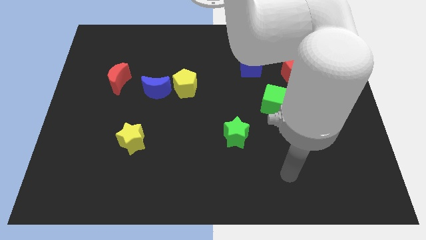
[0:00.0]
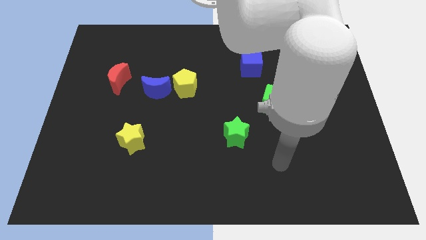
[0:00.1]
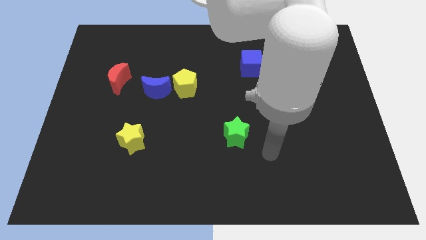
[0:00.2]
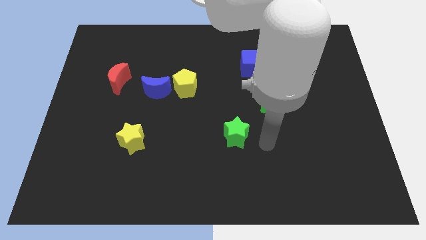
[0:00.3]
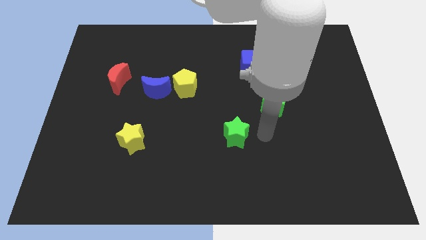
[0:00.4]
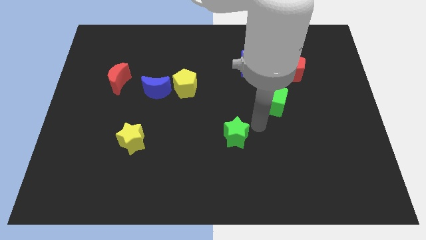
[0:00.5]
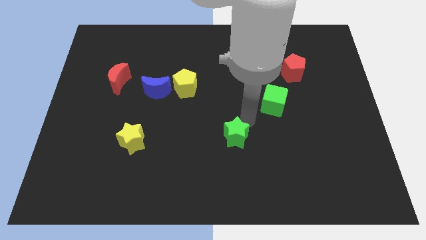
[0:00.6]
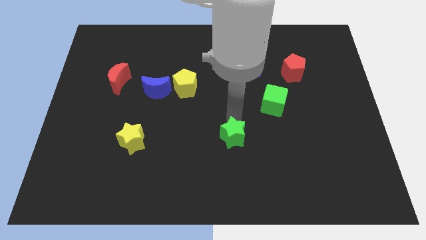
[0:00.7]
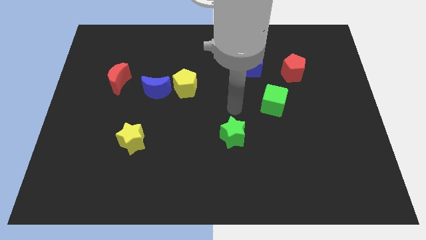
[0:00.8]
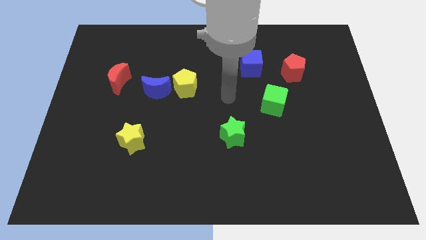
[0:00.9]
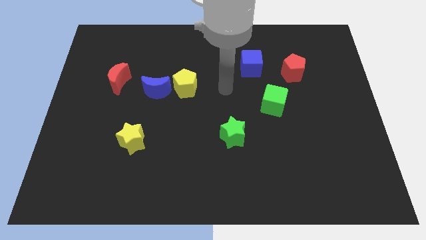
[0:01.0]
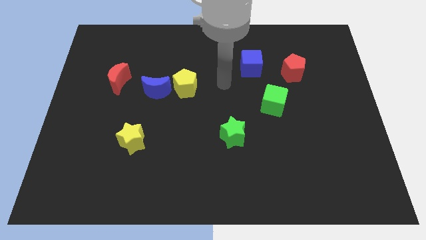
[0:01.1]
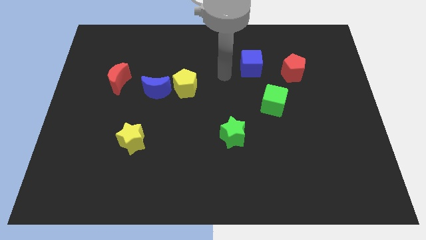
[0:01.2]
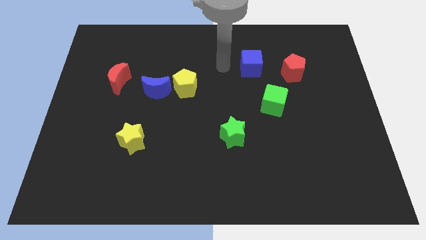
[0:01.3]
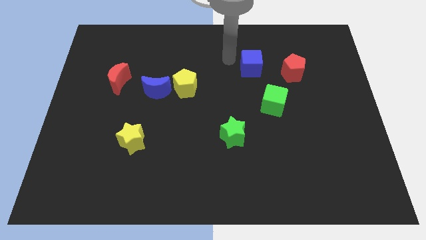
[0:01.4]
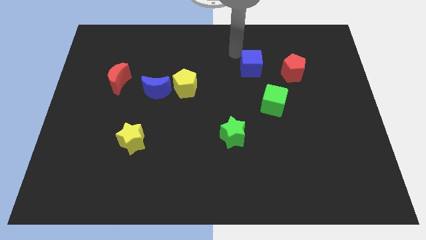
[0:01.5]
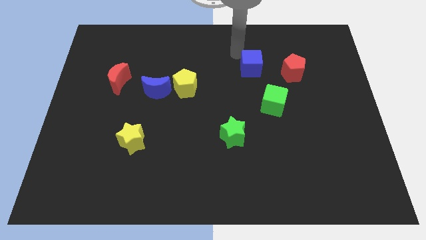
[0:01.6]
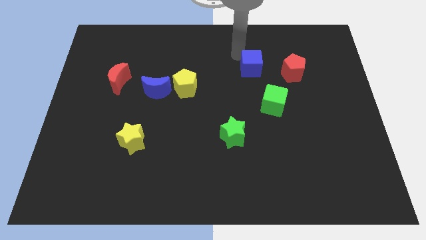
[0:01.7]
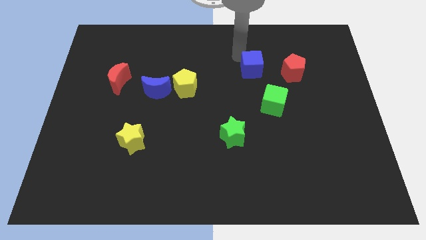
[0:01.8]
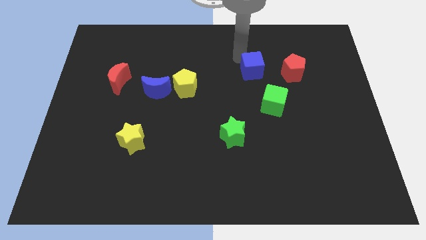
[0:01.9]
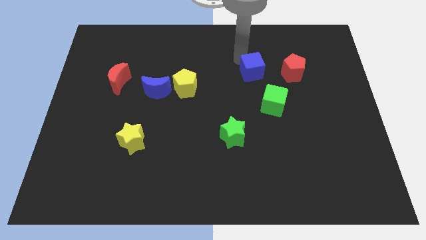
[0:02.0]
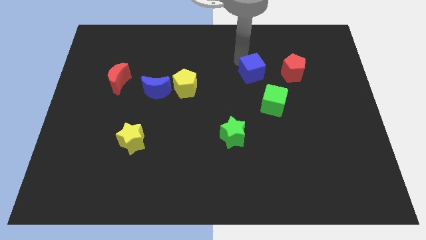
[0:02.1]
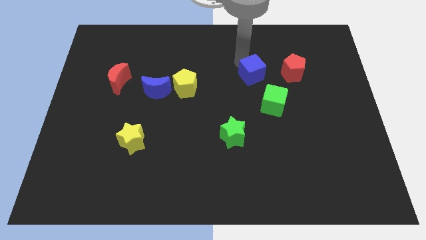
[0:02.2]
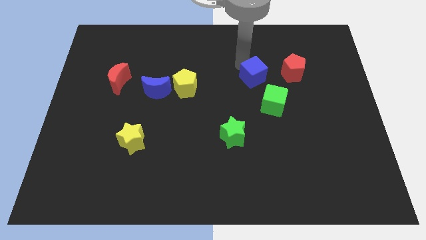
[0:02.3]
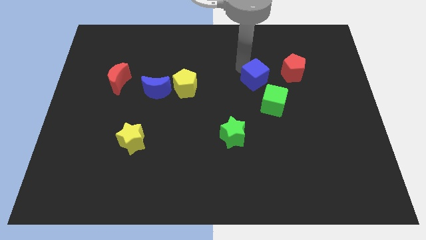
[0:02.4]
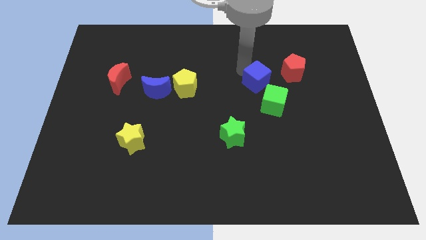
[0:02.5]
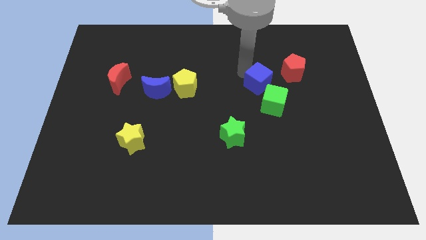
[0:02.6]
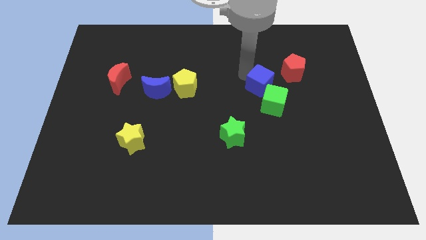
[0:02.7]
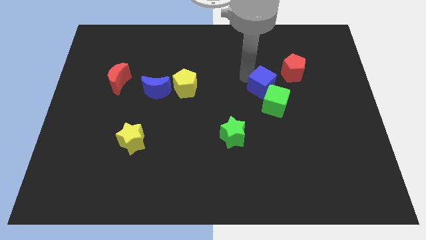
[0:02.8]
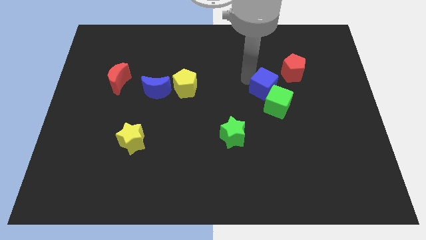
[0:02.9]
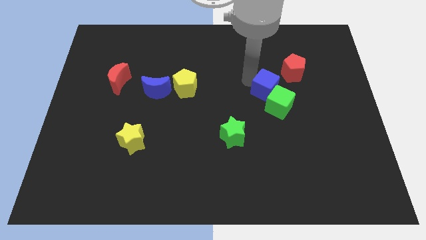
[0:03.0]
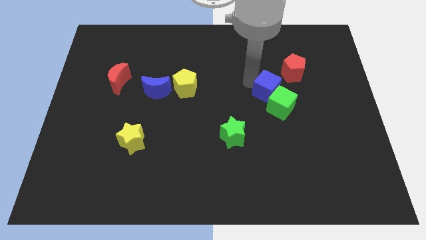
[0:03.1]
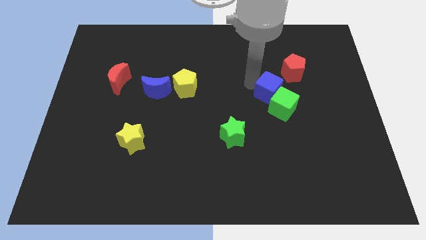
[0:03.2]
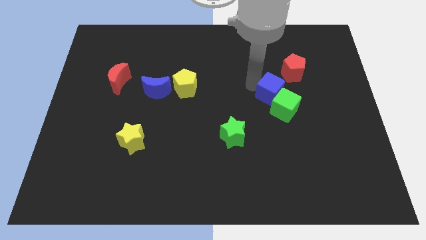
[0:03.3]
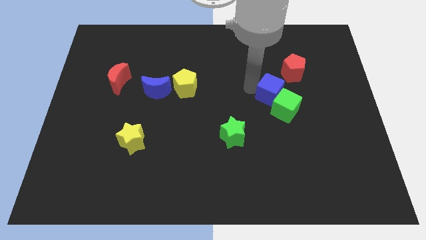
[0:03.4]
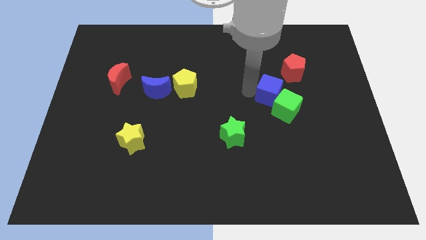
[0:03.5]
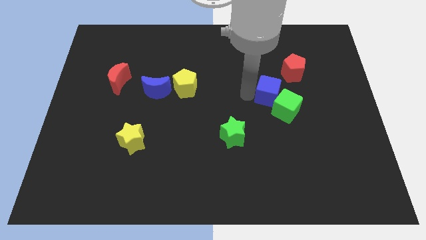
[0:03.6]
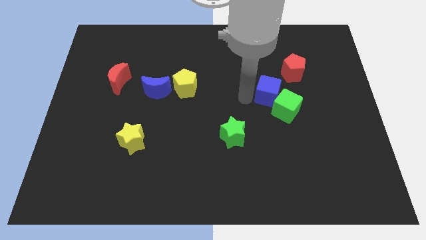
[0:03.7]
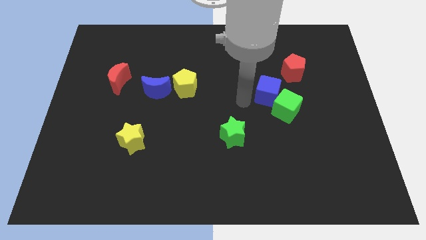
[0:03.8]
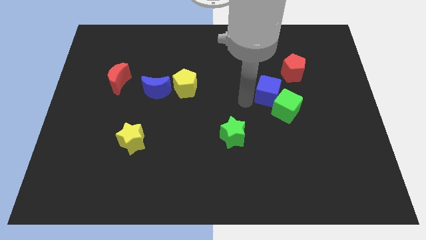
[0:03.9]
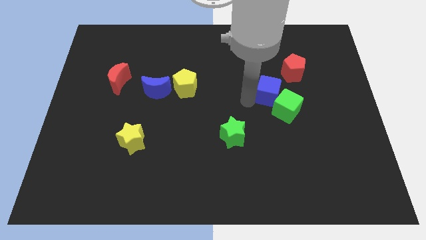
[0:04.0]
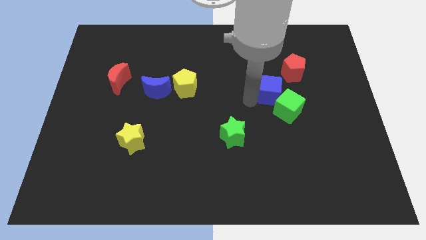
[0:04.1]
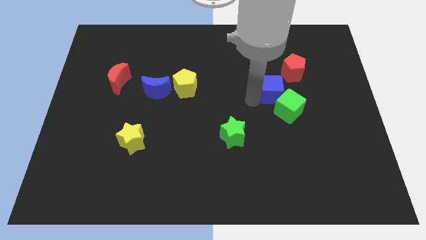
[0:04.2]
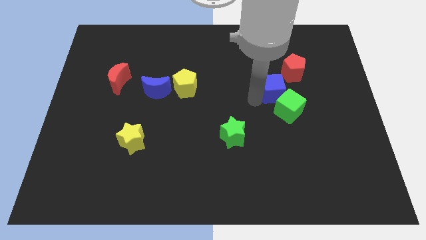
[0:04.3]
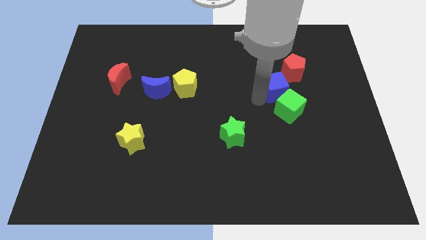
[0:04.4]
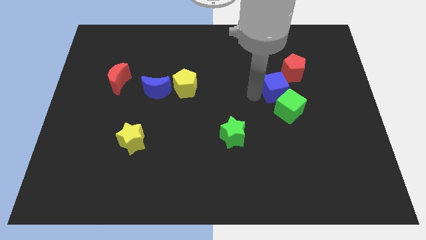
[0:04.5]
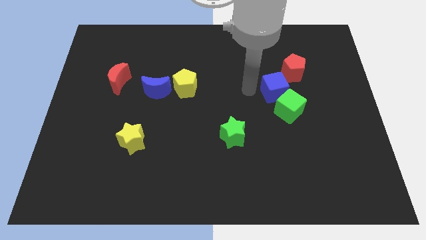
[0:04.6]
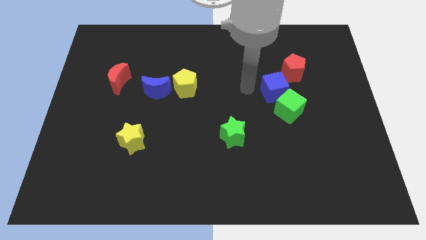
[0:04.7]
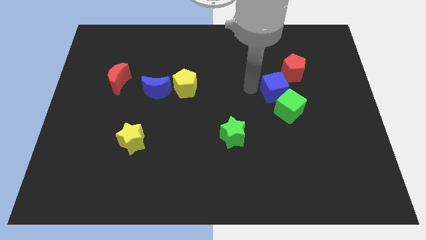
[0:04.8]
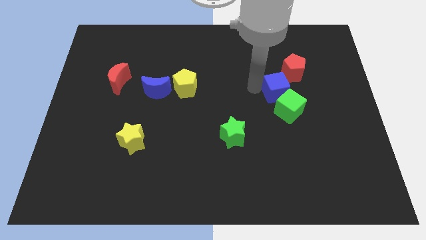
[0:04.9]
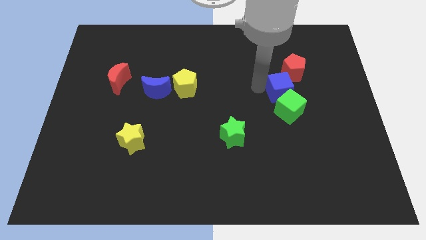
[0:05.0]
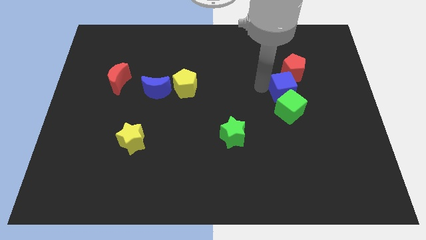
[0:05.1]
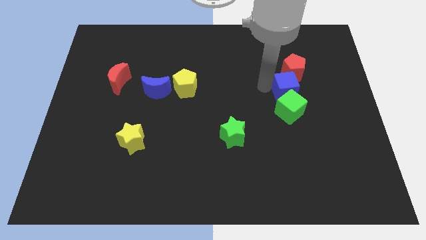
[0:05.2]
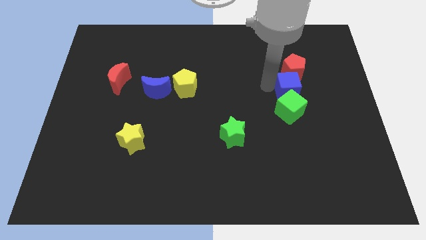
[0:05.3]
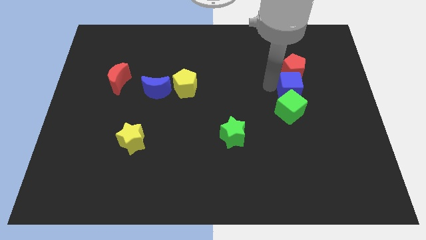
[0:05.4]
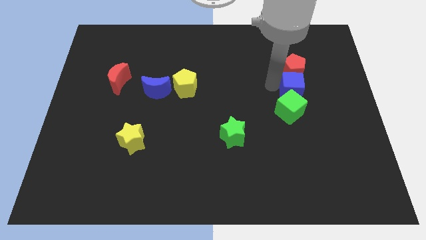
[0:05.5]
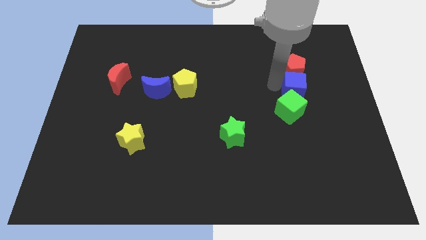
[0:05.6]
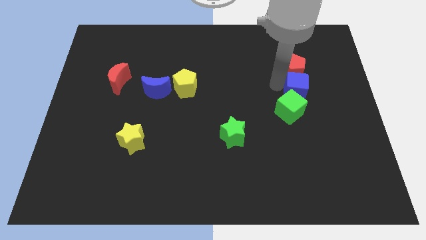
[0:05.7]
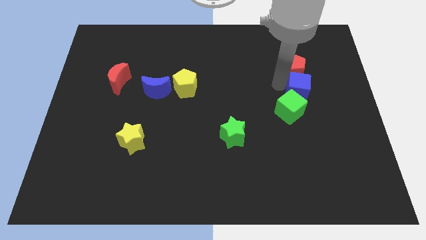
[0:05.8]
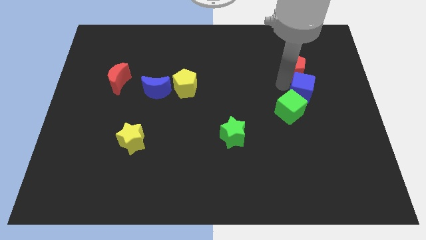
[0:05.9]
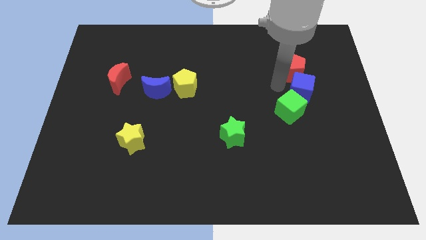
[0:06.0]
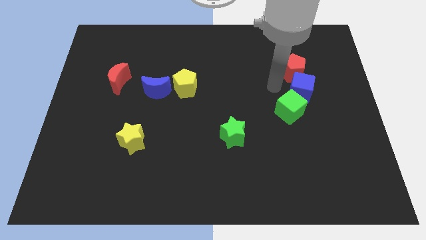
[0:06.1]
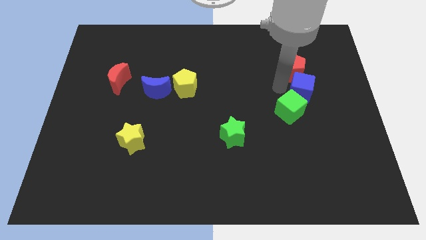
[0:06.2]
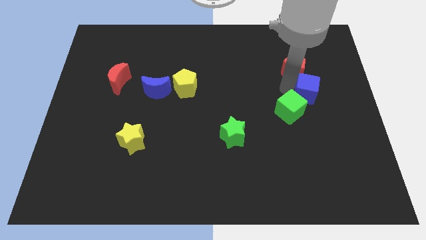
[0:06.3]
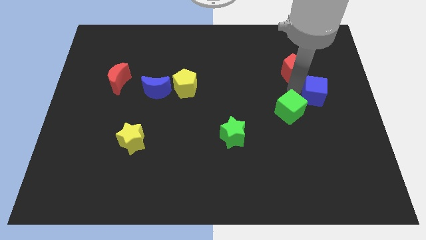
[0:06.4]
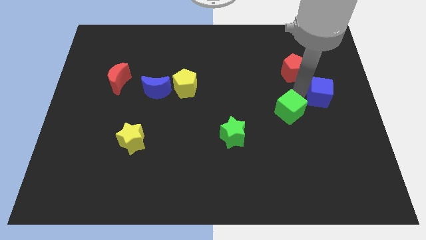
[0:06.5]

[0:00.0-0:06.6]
put the blue cube to the center right
